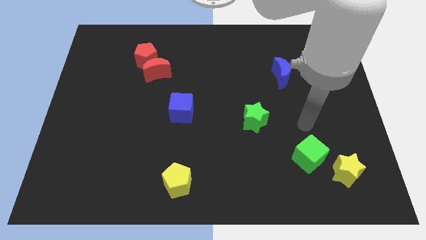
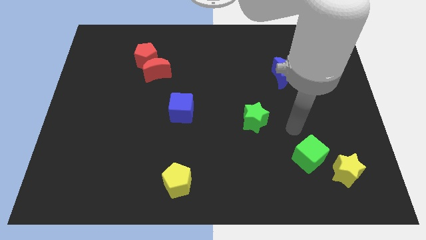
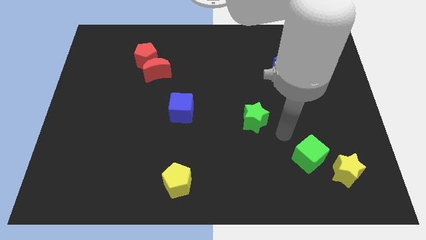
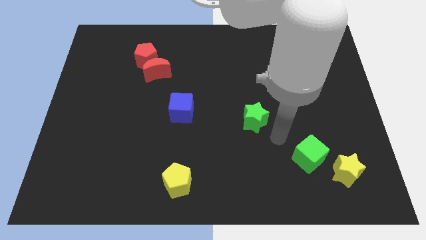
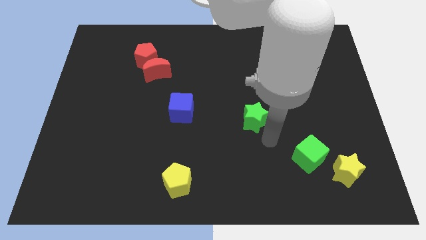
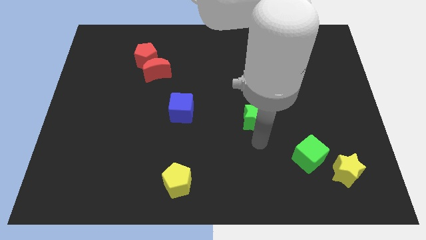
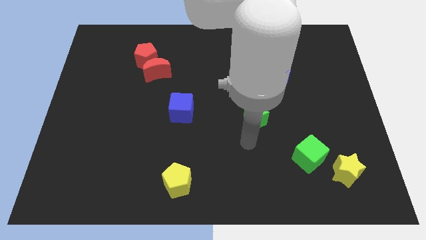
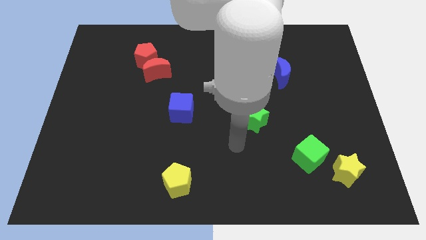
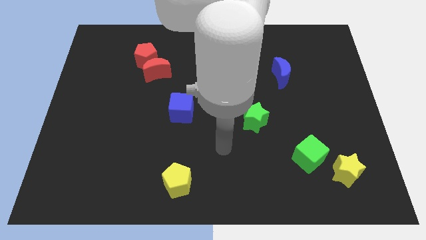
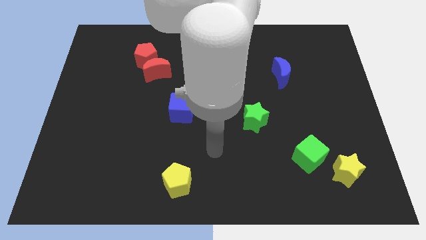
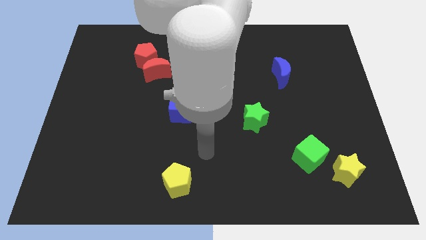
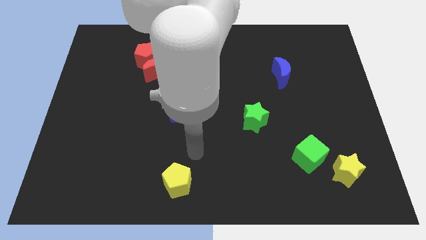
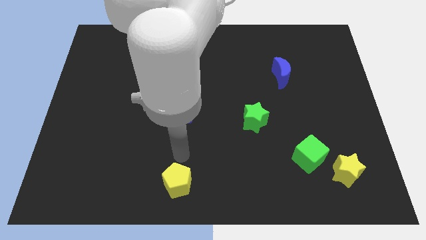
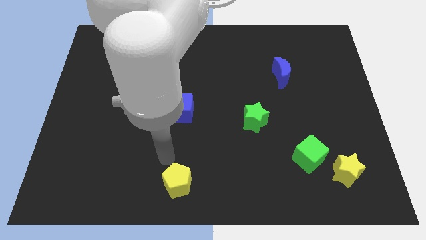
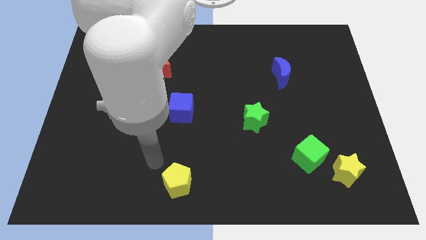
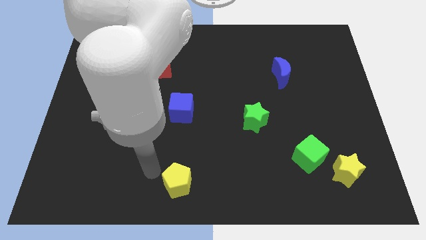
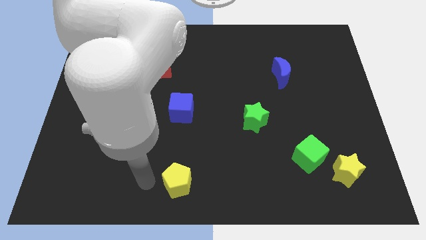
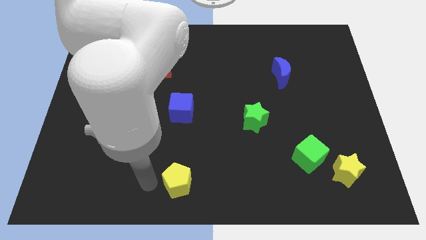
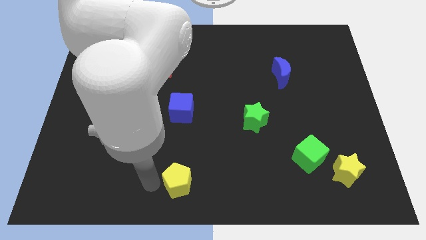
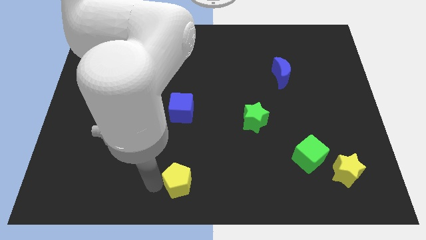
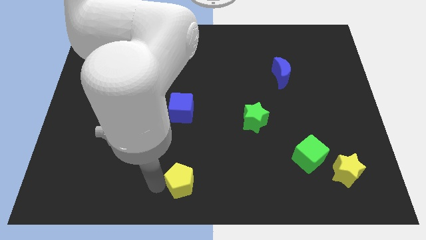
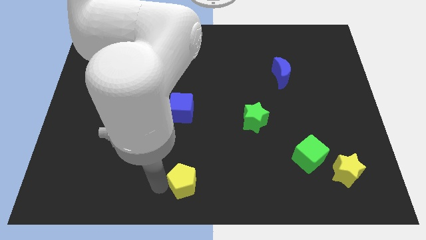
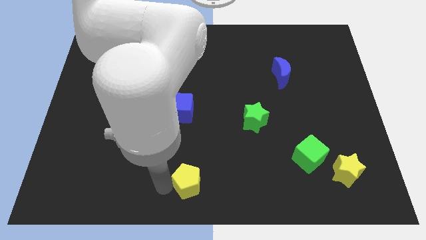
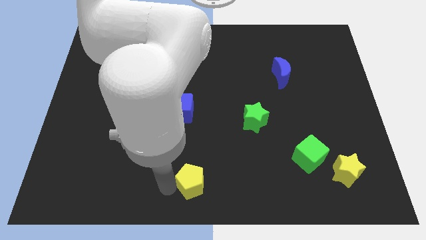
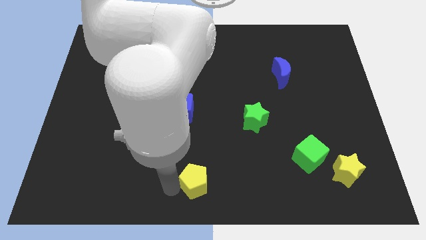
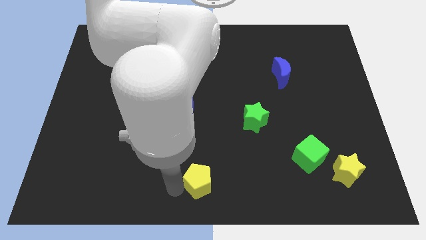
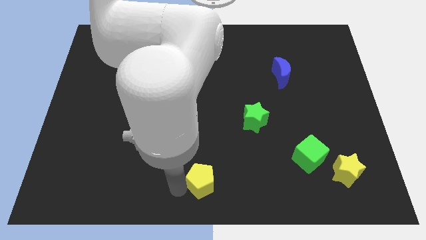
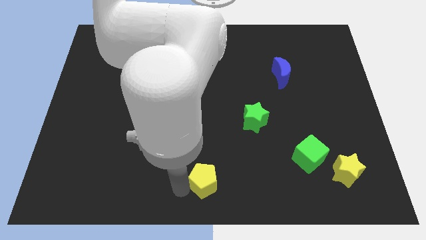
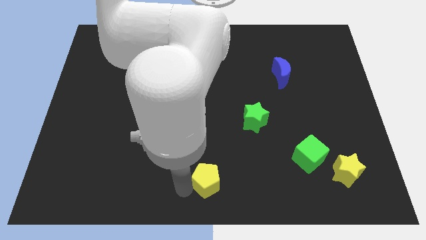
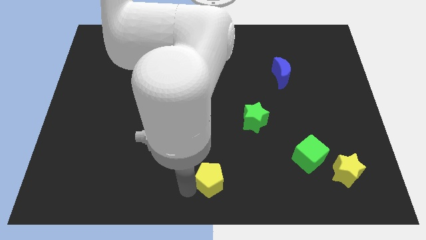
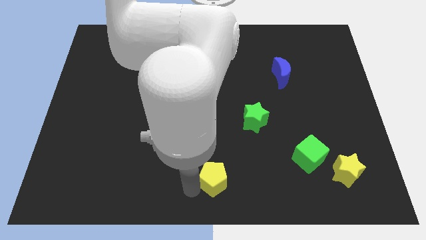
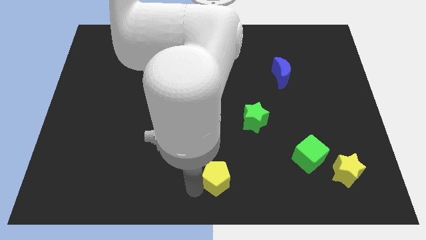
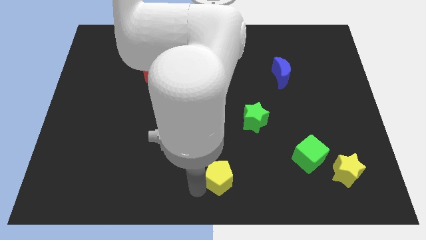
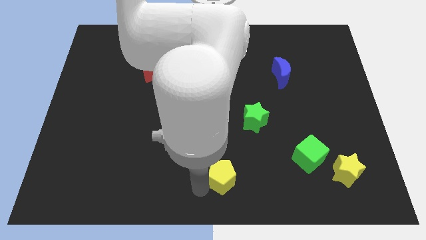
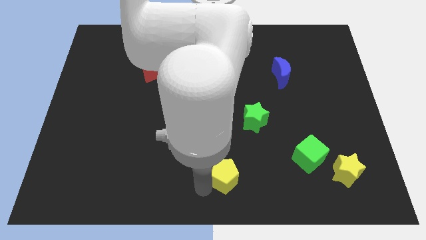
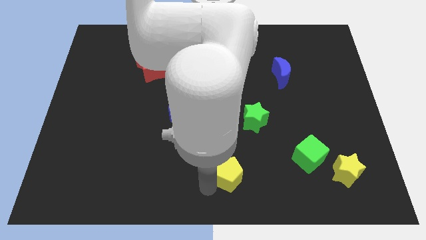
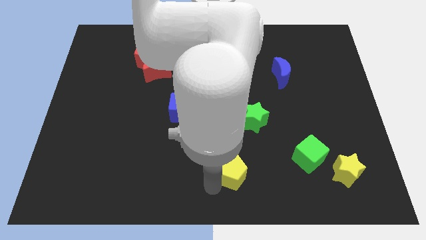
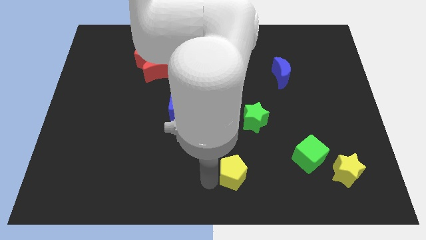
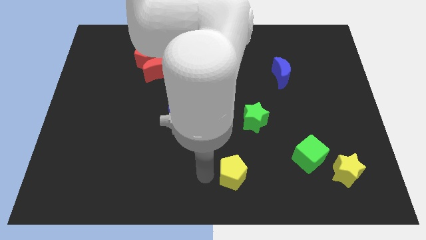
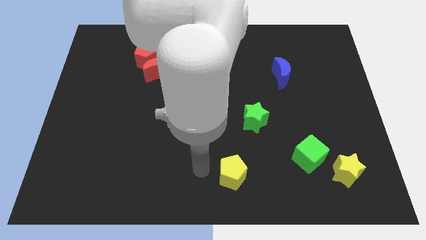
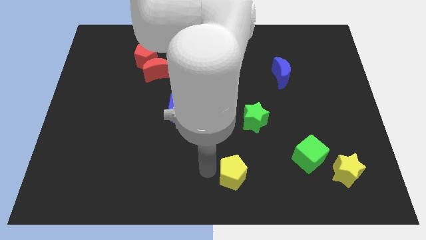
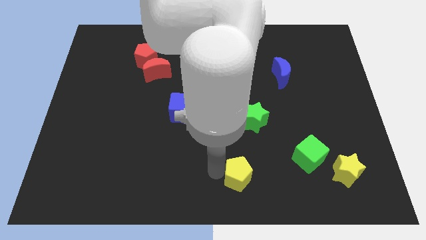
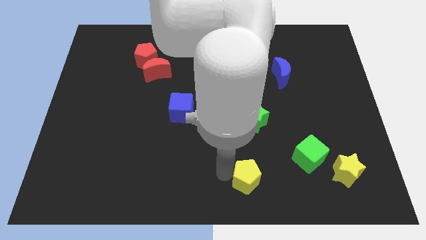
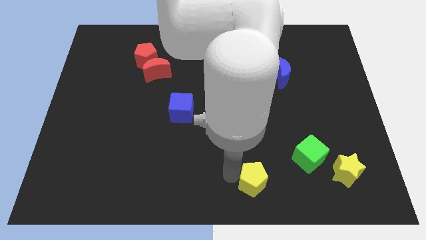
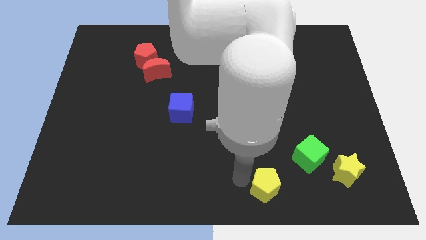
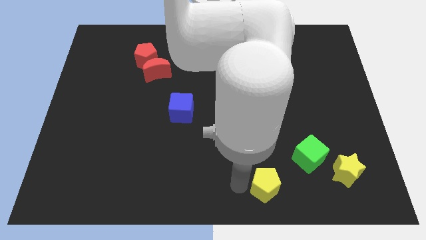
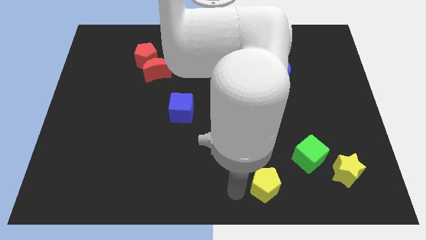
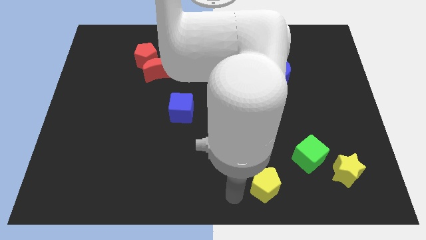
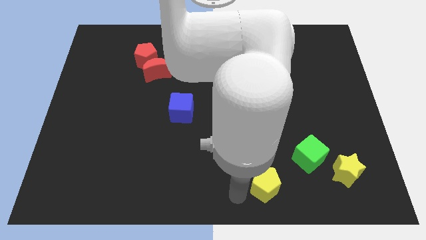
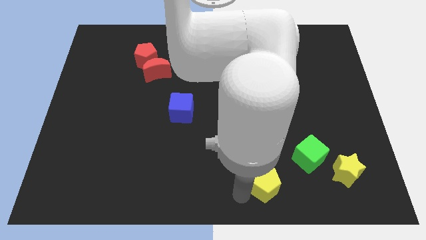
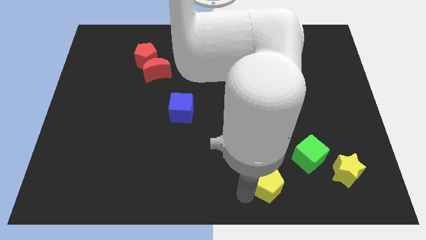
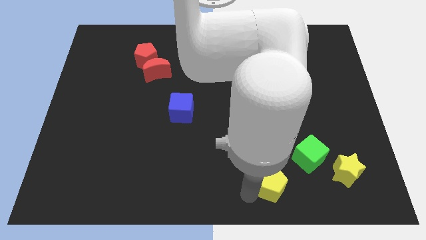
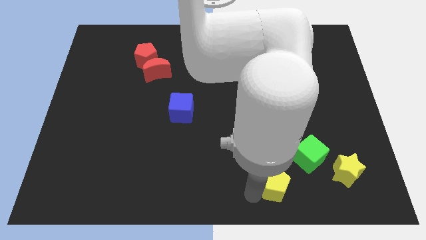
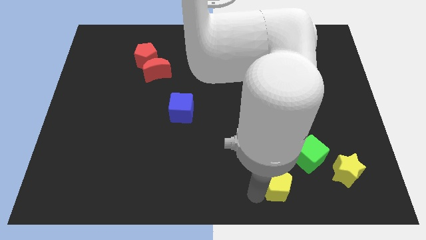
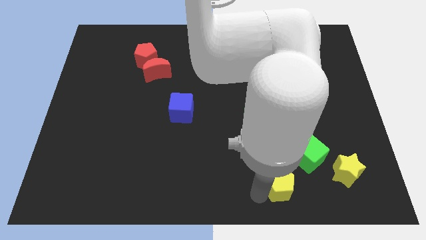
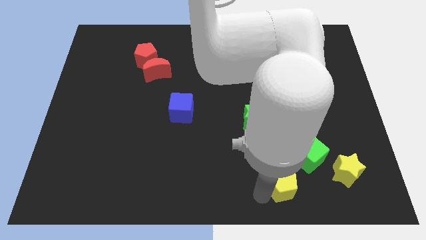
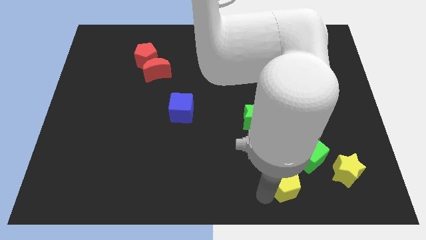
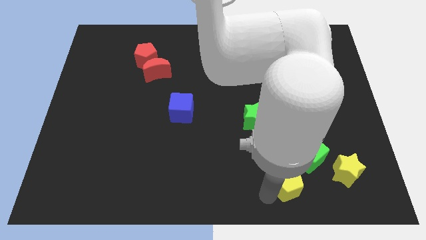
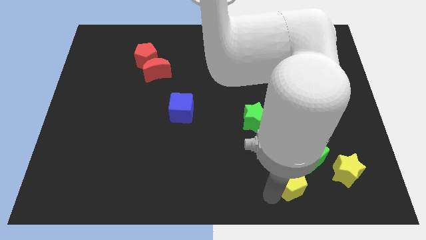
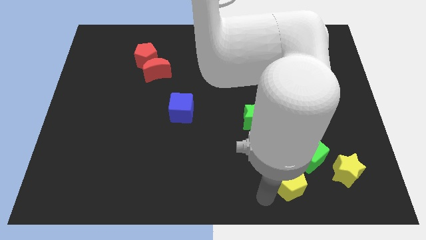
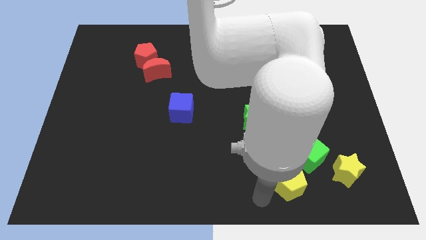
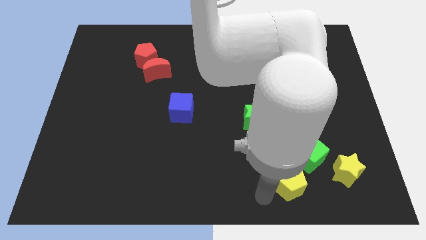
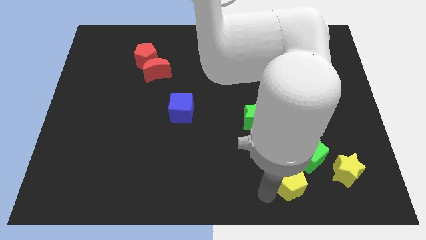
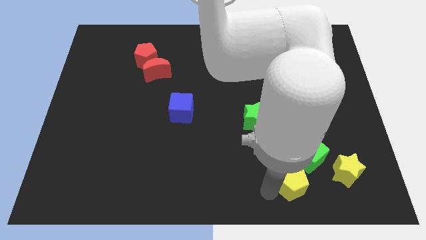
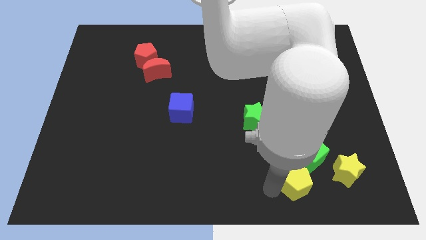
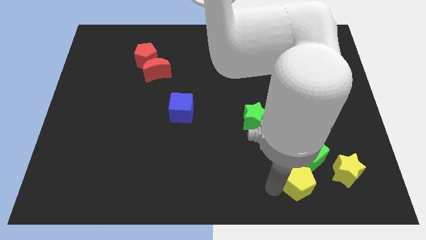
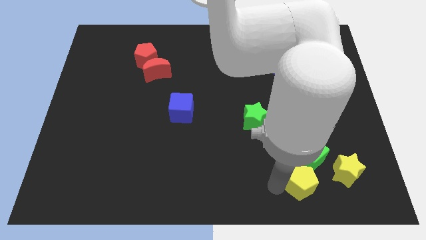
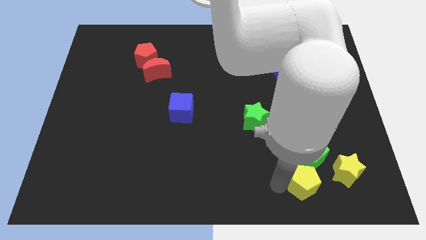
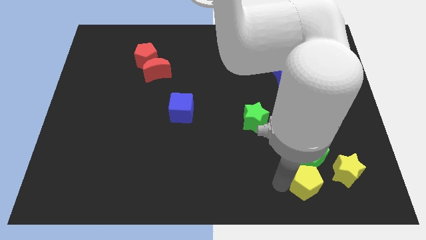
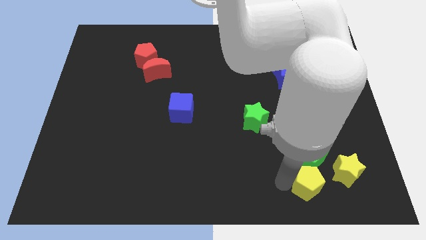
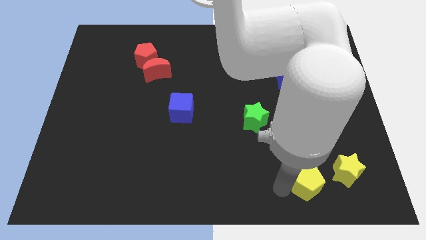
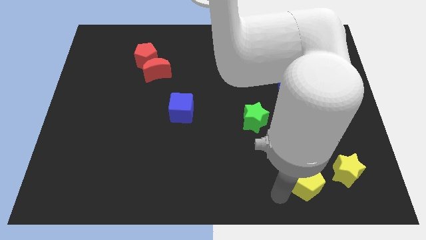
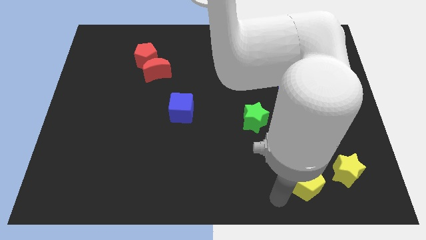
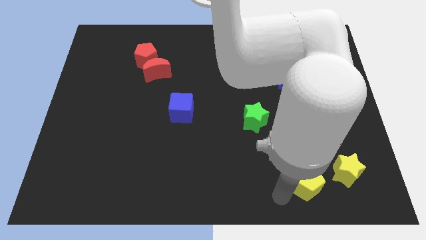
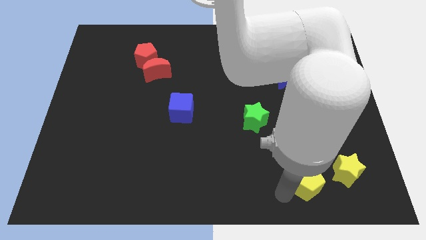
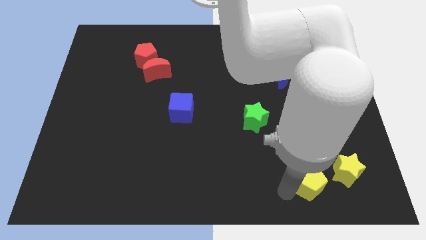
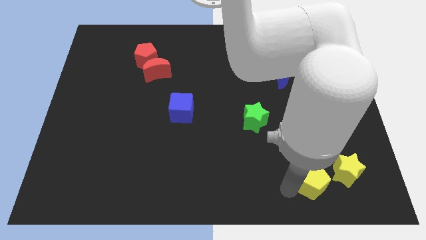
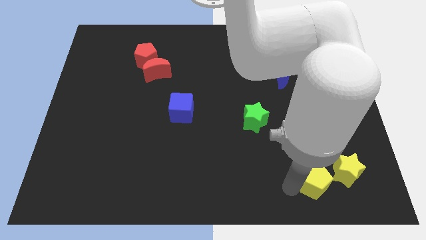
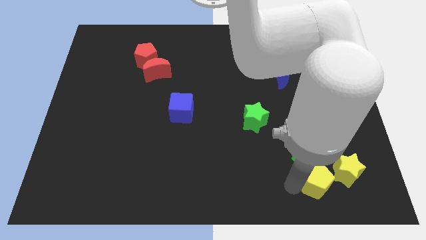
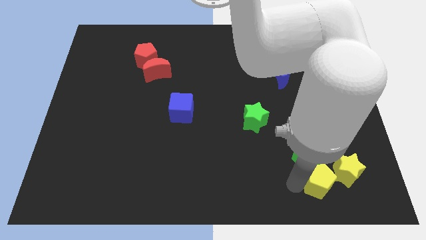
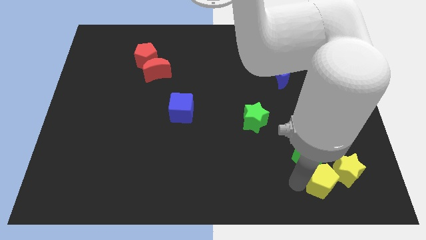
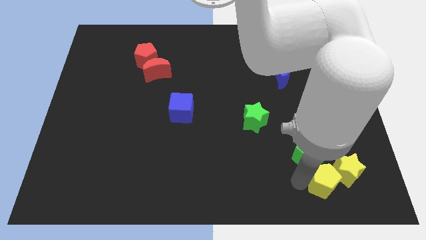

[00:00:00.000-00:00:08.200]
push the yellow pentagon towards the yellow star
